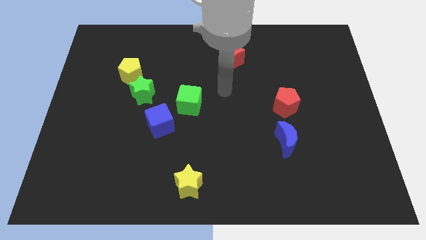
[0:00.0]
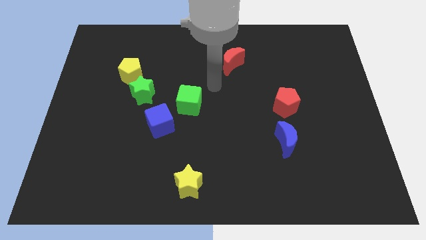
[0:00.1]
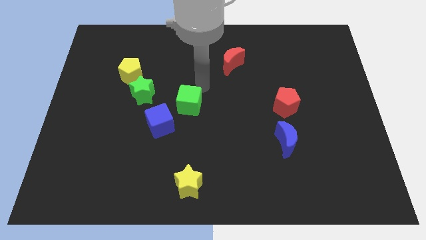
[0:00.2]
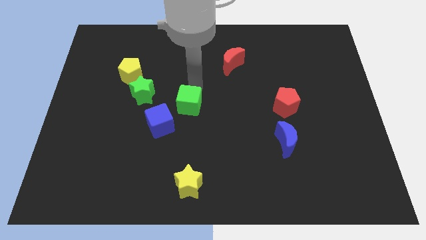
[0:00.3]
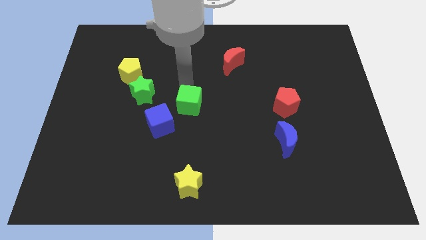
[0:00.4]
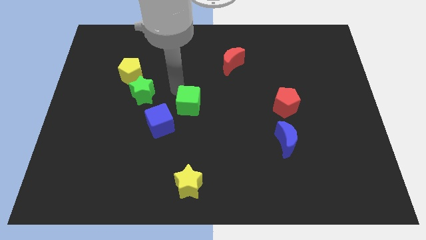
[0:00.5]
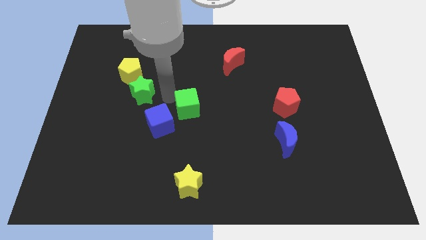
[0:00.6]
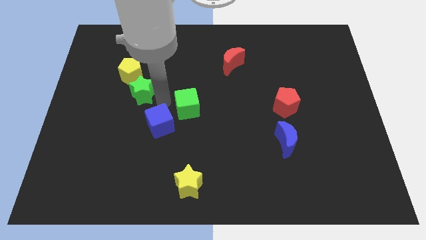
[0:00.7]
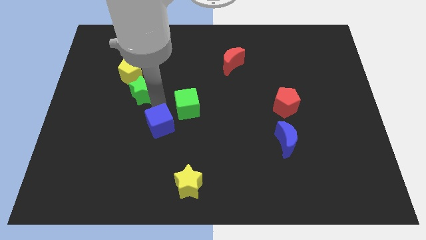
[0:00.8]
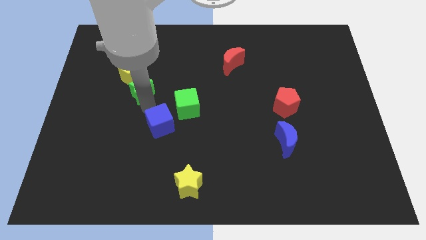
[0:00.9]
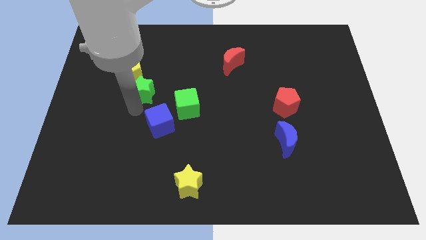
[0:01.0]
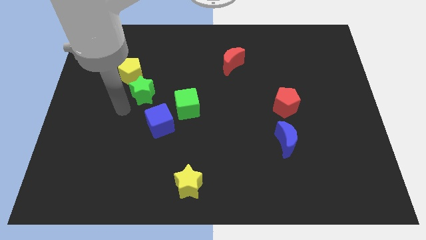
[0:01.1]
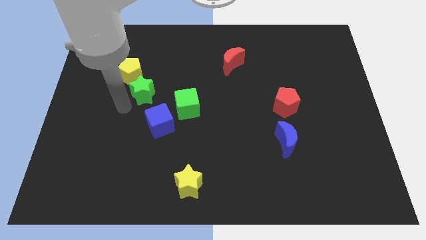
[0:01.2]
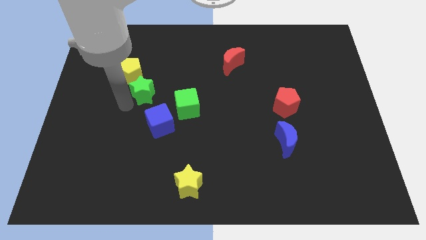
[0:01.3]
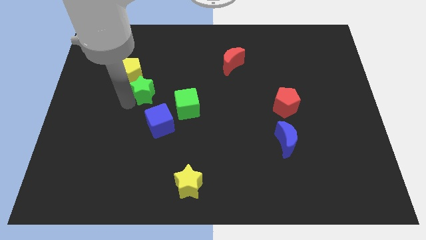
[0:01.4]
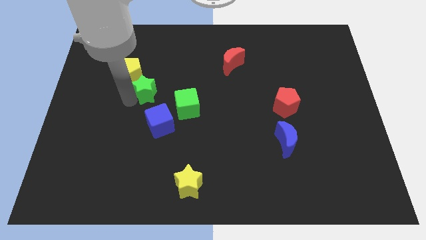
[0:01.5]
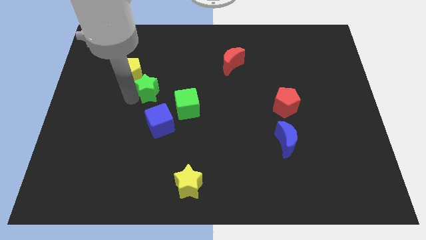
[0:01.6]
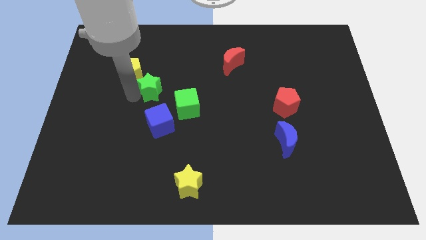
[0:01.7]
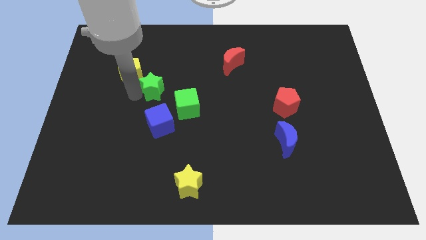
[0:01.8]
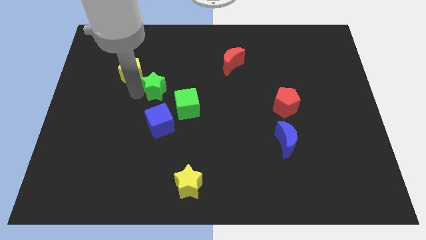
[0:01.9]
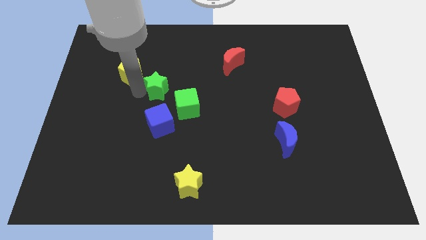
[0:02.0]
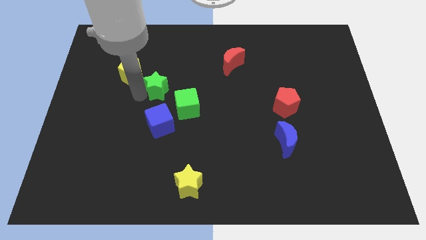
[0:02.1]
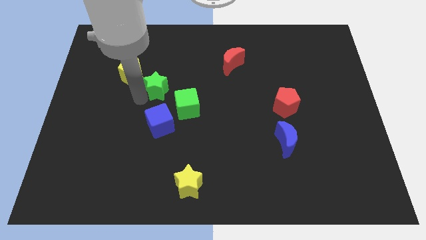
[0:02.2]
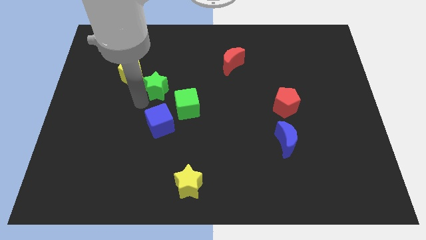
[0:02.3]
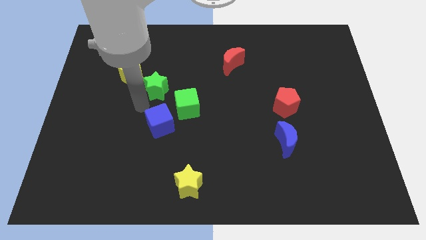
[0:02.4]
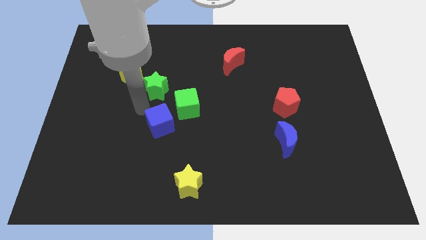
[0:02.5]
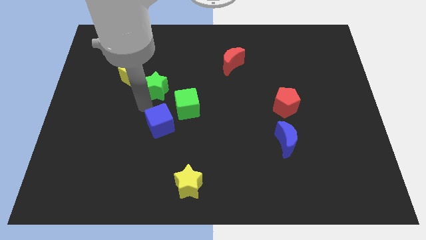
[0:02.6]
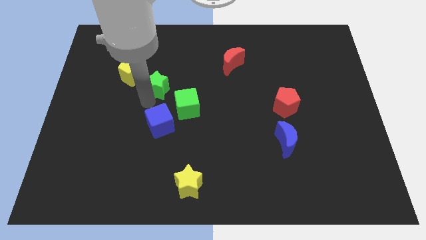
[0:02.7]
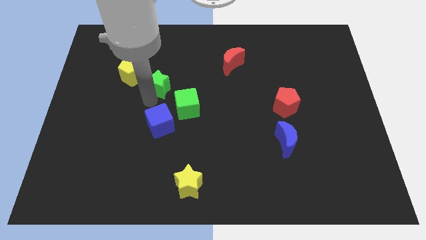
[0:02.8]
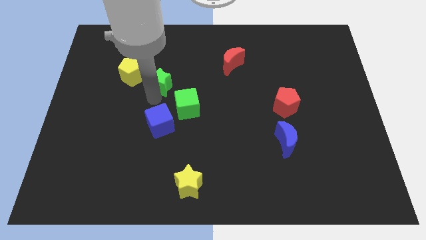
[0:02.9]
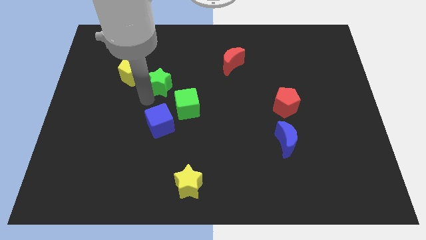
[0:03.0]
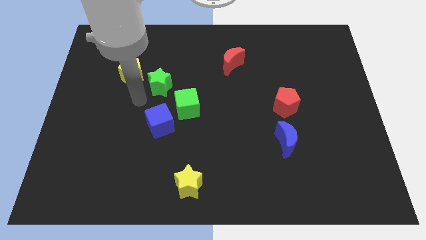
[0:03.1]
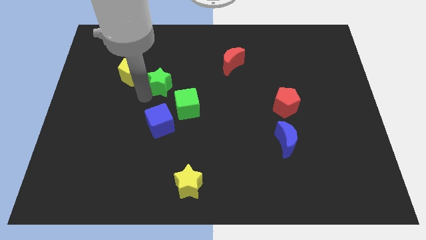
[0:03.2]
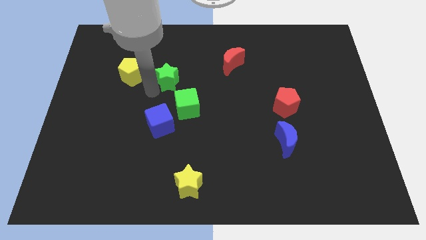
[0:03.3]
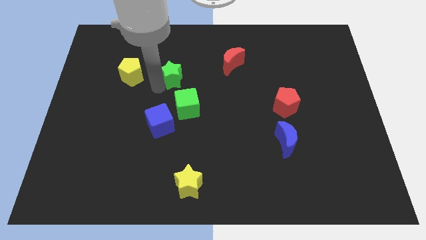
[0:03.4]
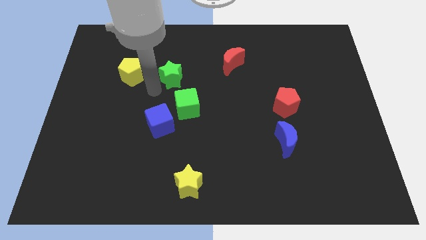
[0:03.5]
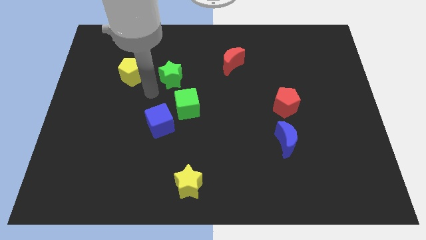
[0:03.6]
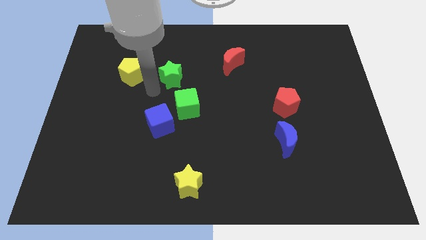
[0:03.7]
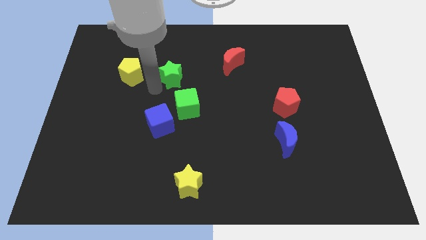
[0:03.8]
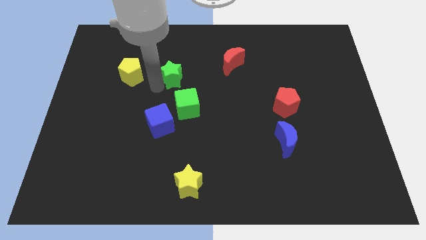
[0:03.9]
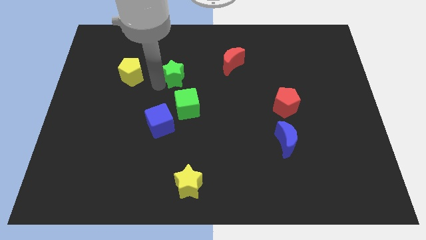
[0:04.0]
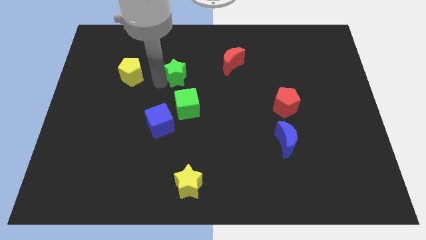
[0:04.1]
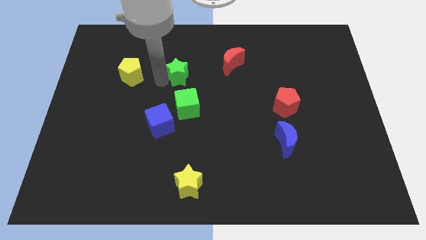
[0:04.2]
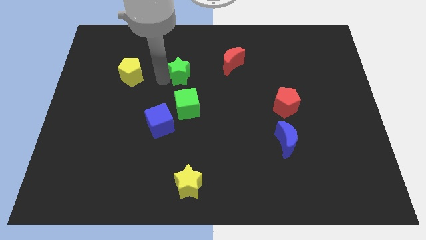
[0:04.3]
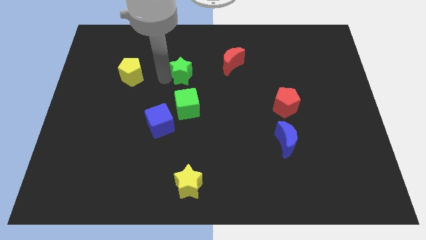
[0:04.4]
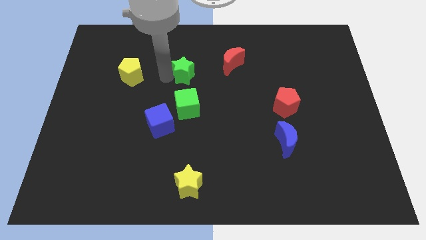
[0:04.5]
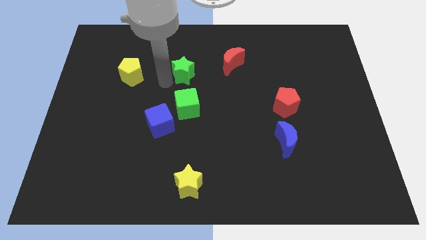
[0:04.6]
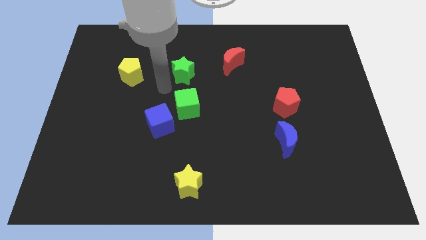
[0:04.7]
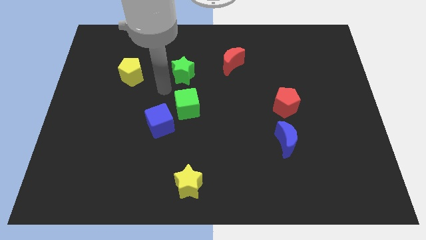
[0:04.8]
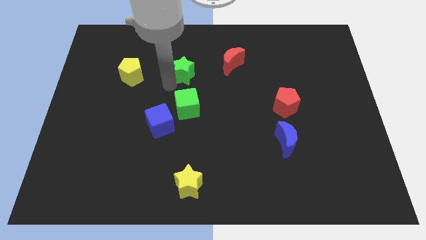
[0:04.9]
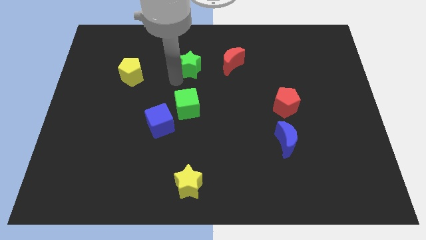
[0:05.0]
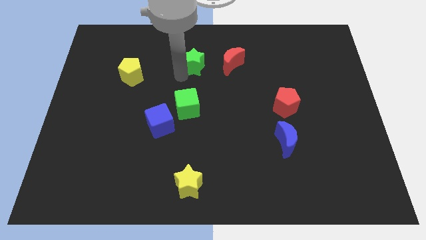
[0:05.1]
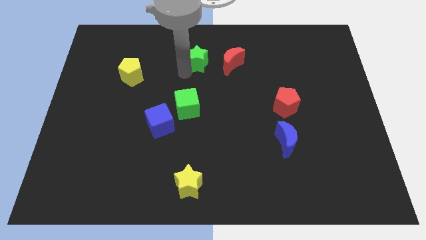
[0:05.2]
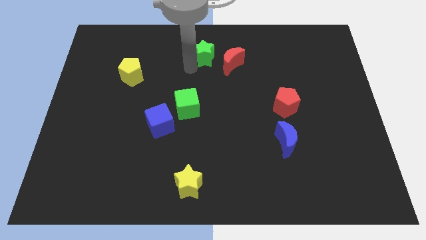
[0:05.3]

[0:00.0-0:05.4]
slide the green star to the towards your base

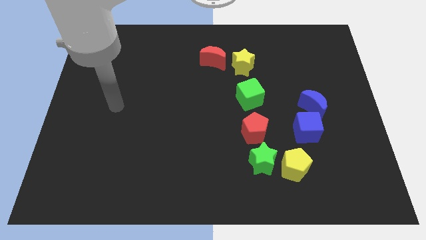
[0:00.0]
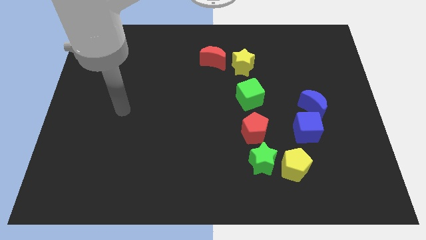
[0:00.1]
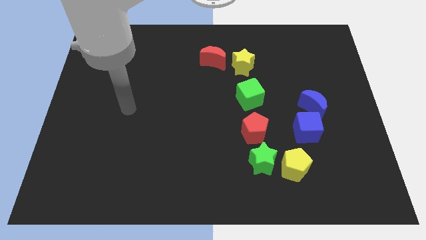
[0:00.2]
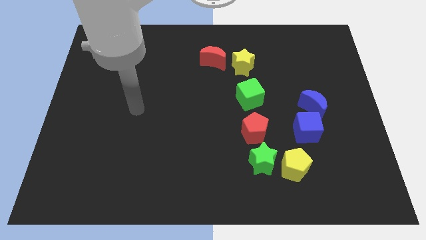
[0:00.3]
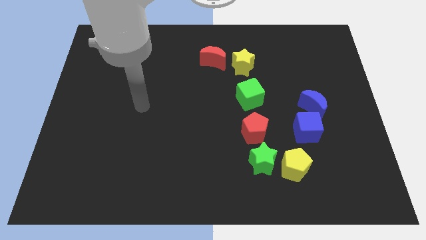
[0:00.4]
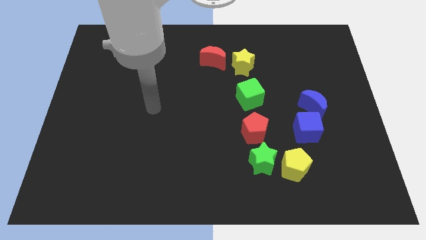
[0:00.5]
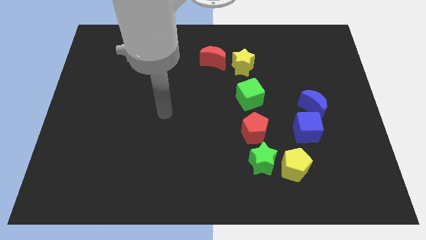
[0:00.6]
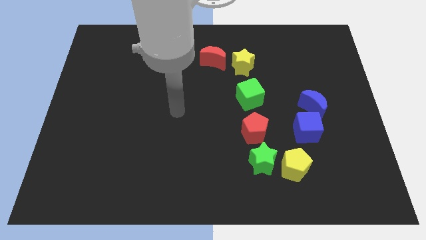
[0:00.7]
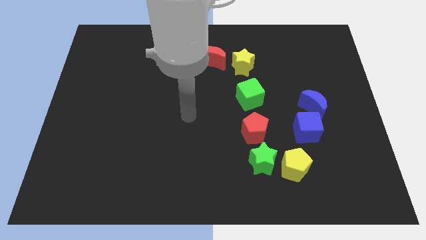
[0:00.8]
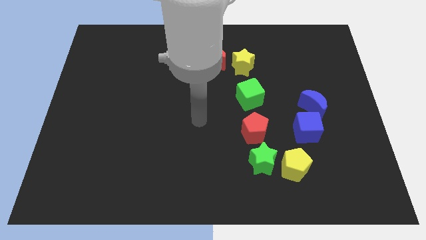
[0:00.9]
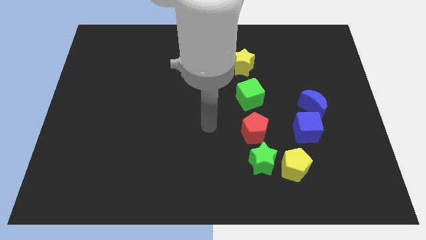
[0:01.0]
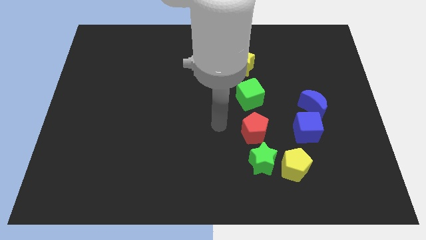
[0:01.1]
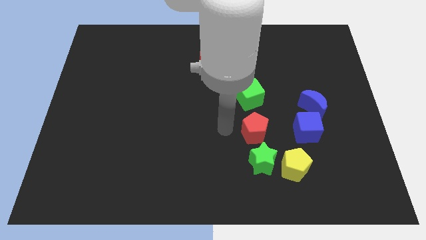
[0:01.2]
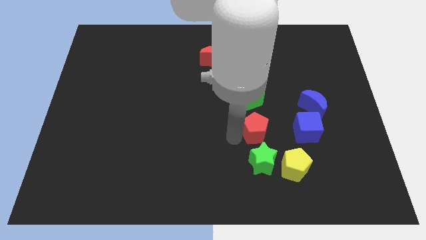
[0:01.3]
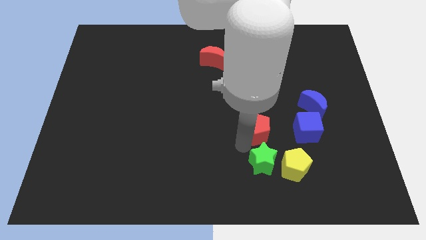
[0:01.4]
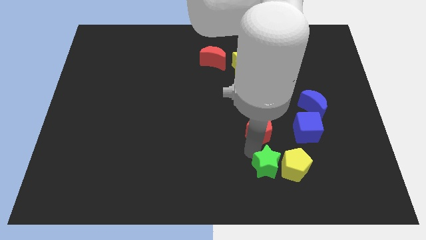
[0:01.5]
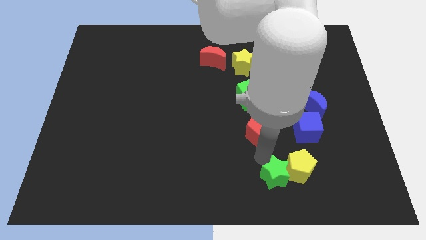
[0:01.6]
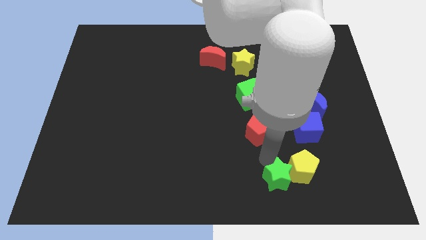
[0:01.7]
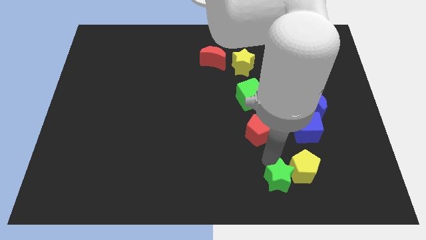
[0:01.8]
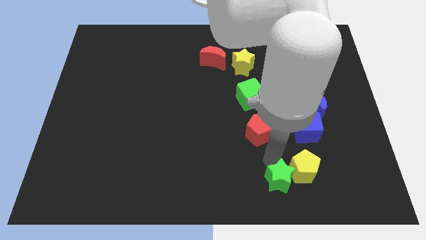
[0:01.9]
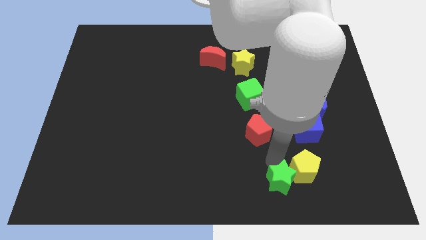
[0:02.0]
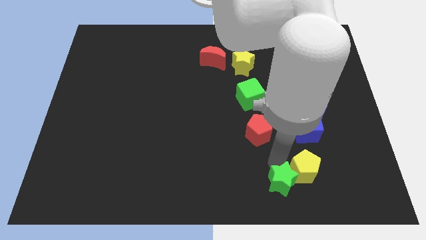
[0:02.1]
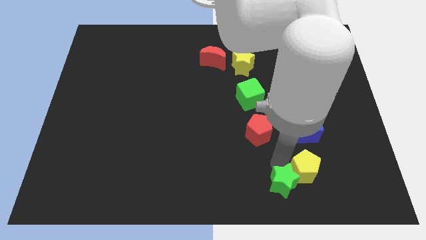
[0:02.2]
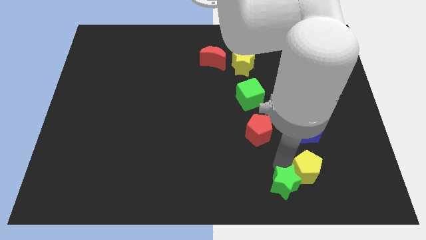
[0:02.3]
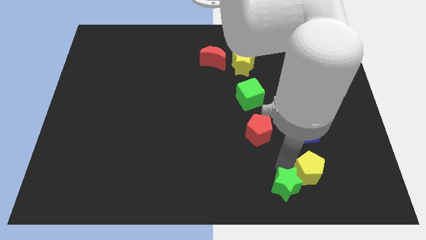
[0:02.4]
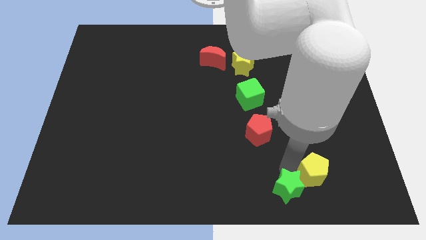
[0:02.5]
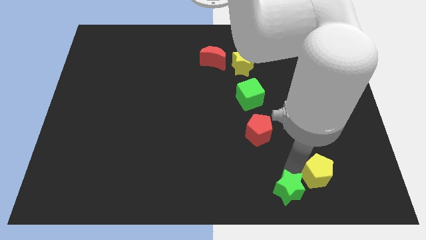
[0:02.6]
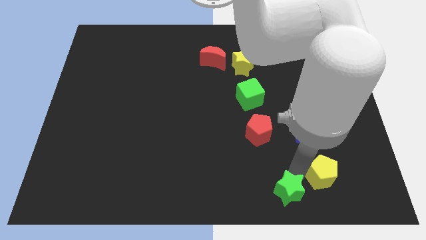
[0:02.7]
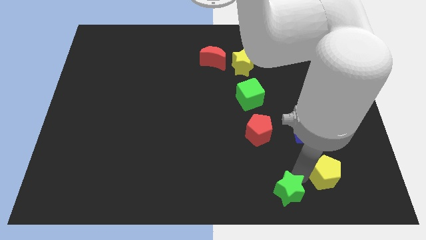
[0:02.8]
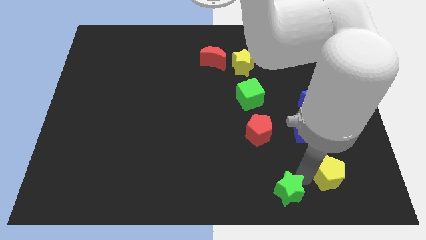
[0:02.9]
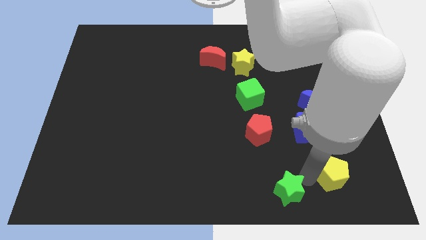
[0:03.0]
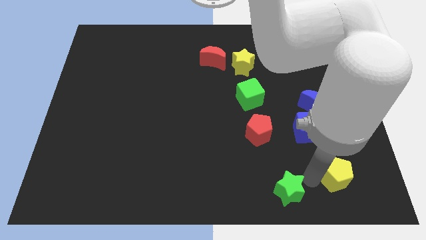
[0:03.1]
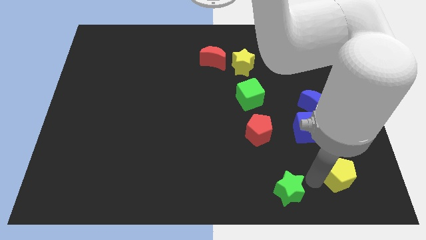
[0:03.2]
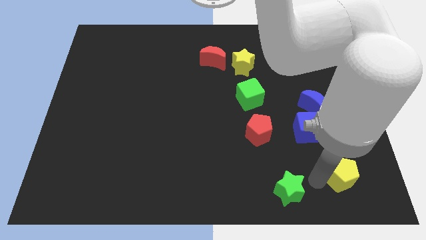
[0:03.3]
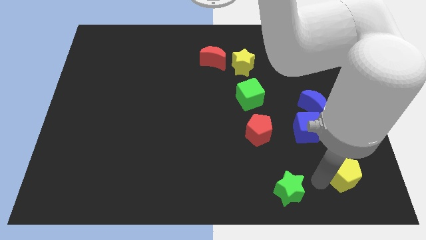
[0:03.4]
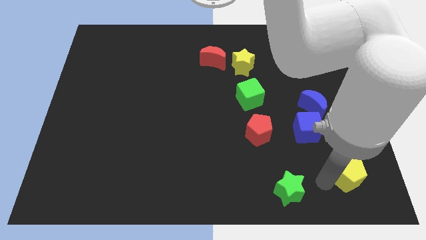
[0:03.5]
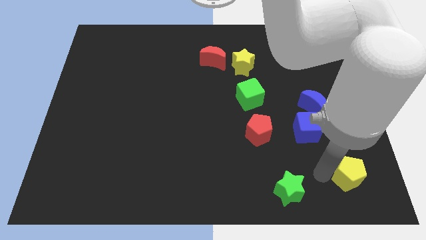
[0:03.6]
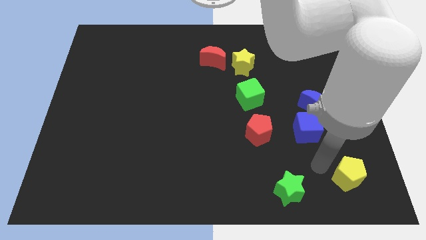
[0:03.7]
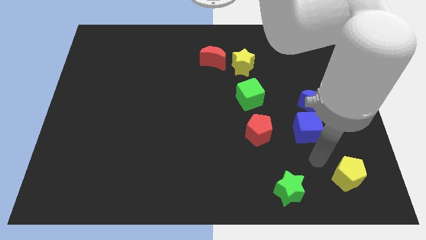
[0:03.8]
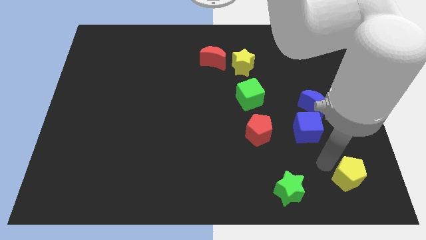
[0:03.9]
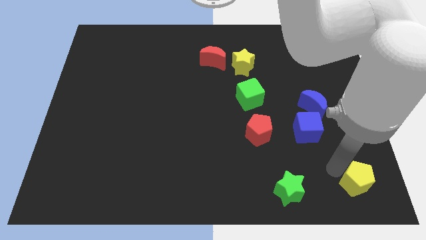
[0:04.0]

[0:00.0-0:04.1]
put the yellow pentagon to the bottom right
